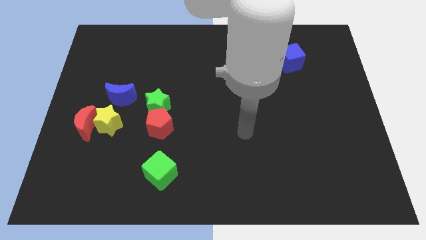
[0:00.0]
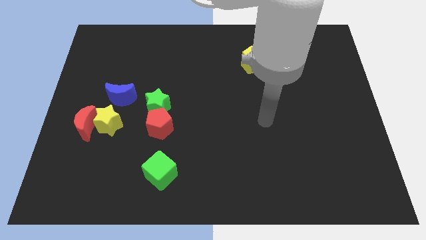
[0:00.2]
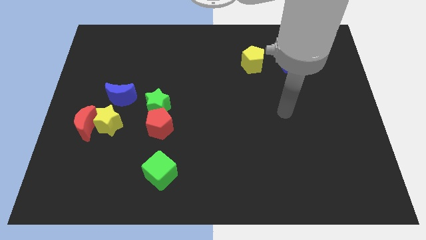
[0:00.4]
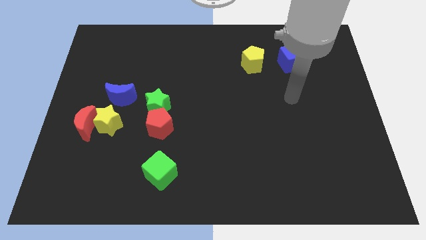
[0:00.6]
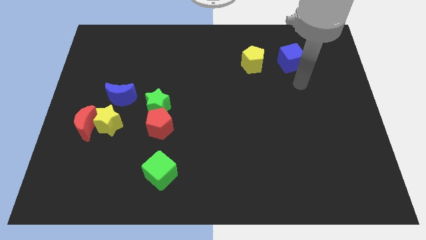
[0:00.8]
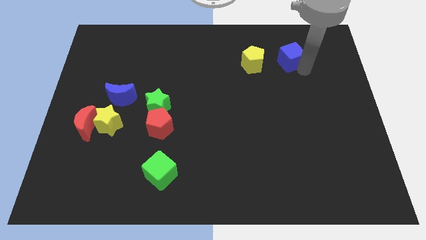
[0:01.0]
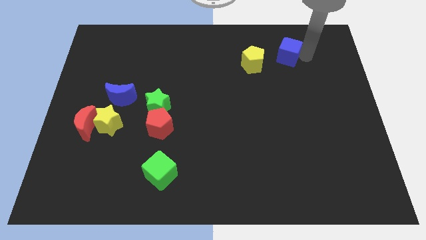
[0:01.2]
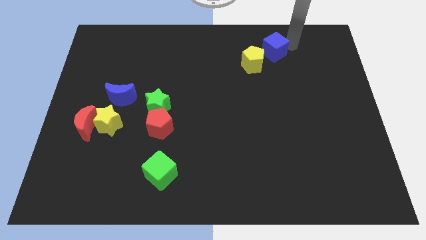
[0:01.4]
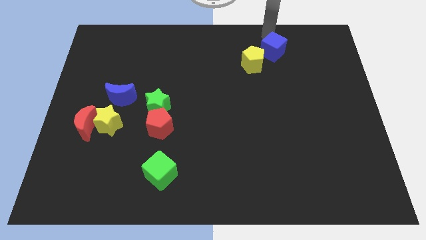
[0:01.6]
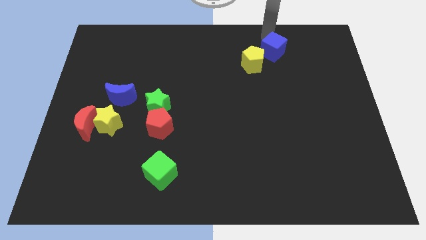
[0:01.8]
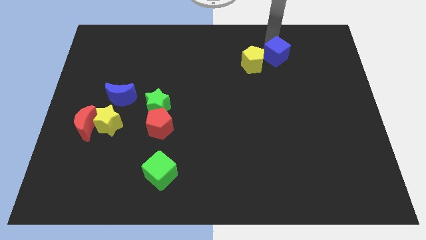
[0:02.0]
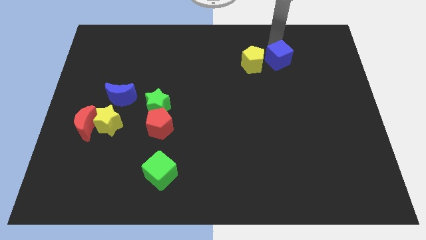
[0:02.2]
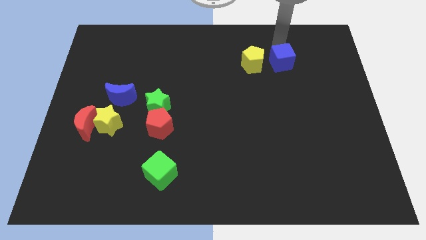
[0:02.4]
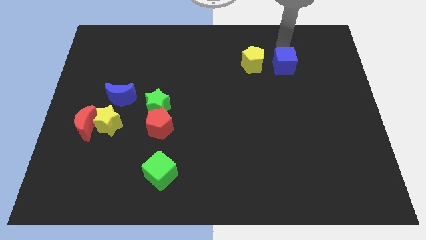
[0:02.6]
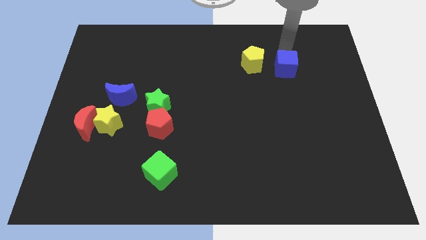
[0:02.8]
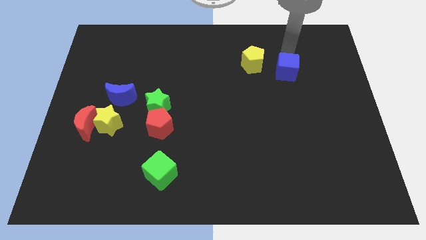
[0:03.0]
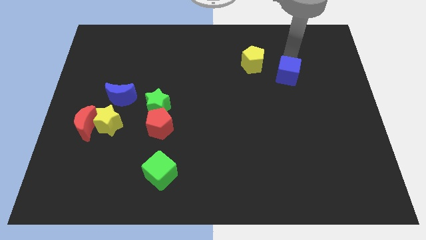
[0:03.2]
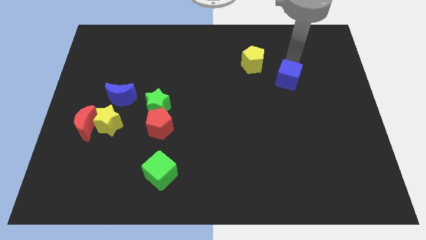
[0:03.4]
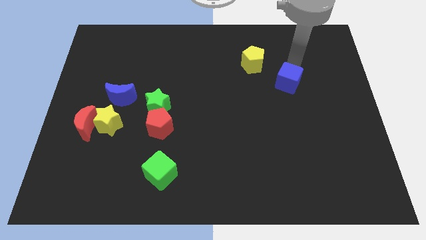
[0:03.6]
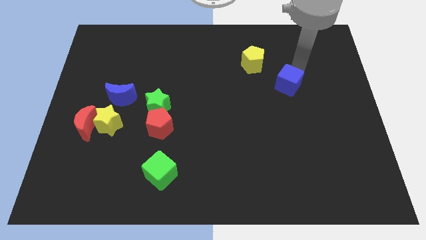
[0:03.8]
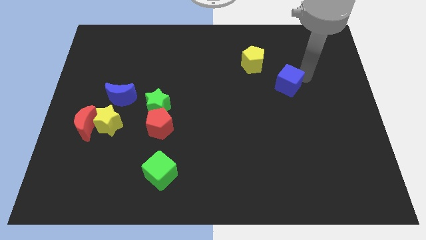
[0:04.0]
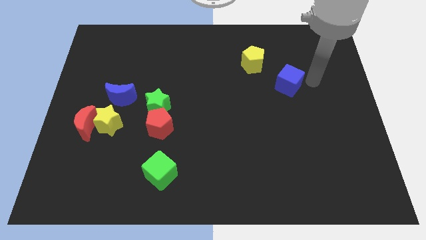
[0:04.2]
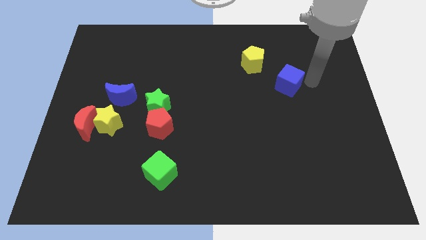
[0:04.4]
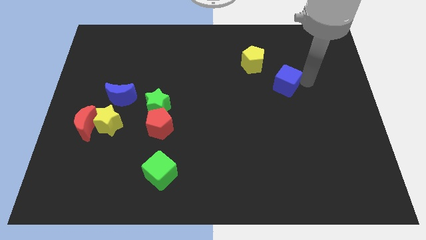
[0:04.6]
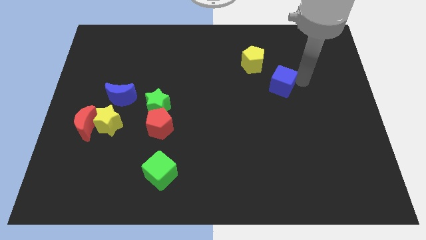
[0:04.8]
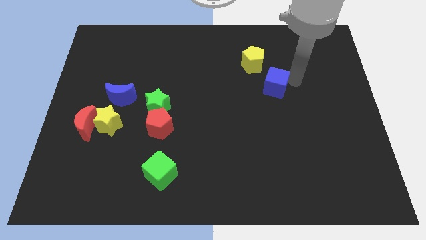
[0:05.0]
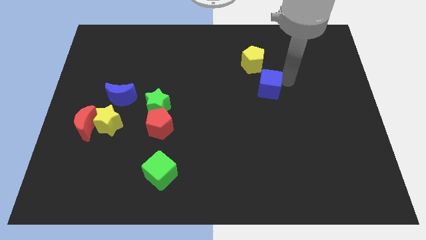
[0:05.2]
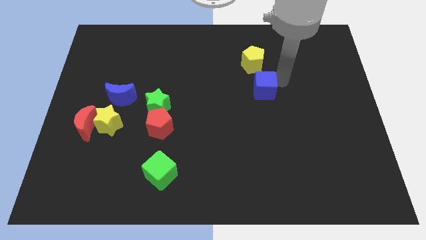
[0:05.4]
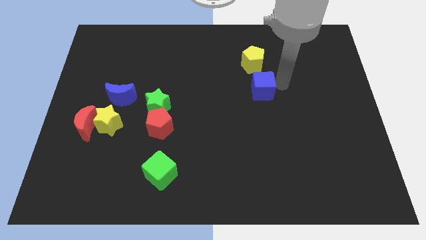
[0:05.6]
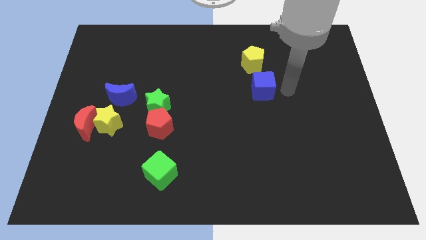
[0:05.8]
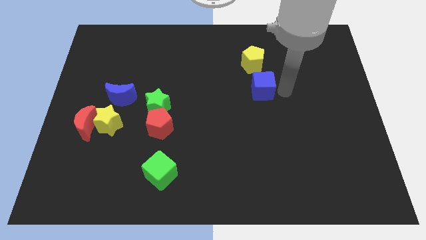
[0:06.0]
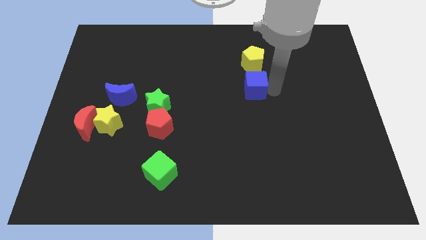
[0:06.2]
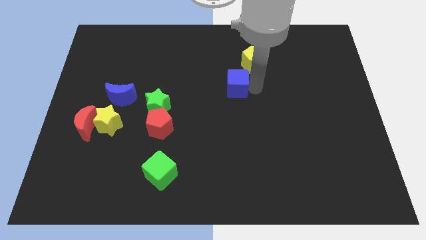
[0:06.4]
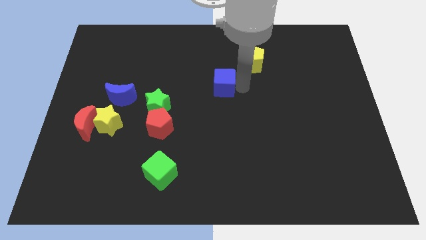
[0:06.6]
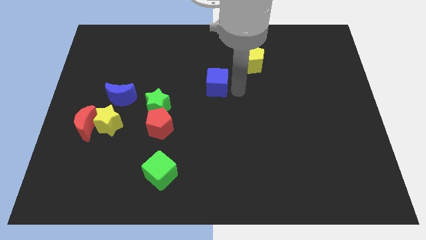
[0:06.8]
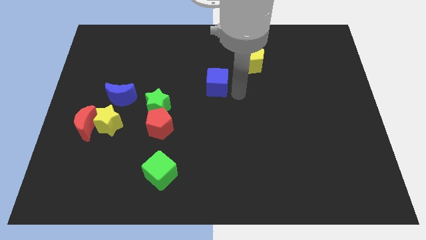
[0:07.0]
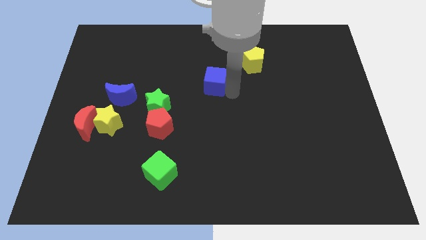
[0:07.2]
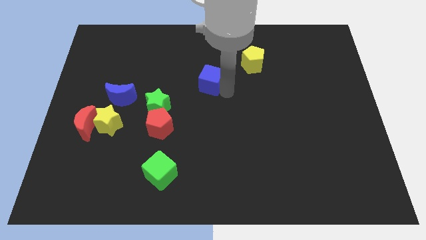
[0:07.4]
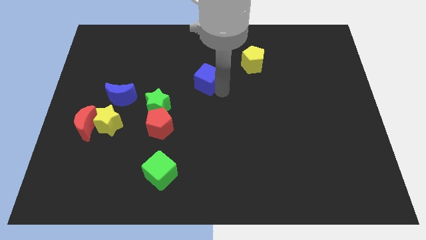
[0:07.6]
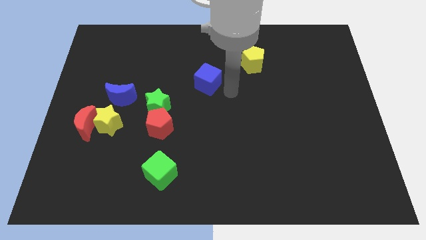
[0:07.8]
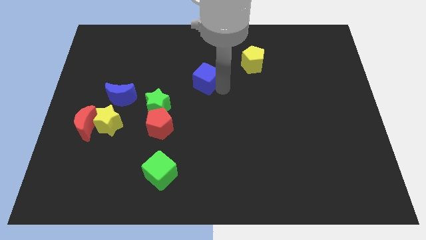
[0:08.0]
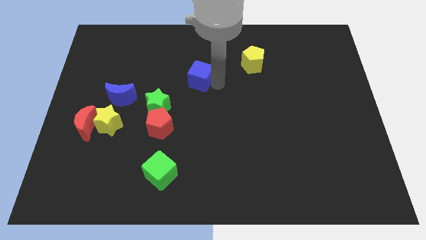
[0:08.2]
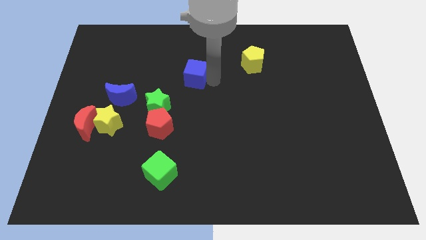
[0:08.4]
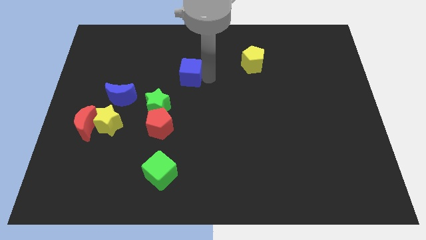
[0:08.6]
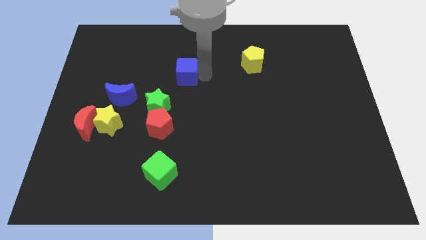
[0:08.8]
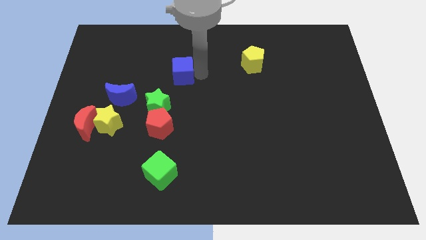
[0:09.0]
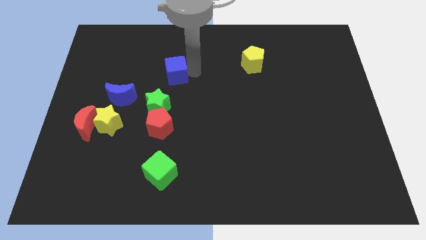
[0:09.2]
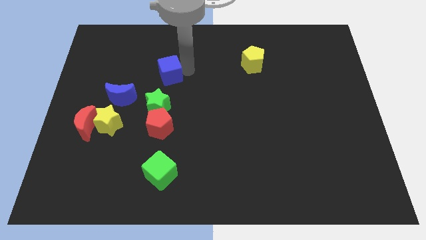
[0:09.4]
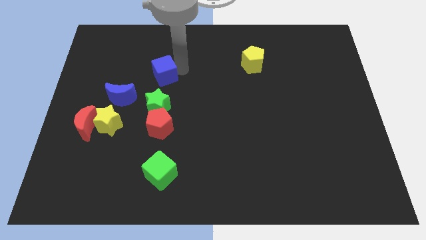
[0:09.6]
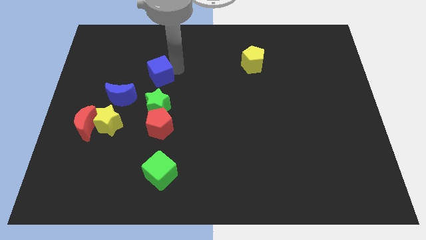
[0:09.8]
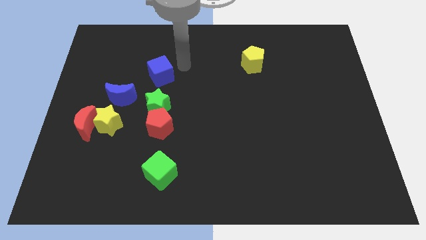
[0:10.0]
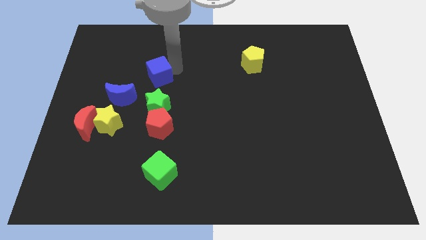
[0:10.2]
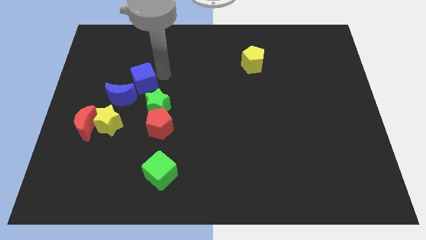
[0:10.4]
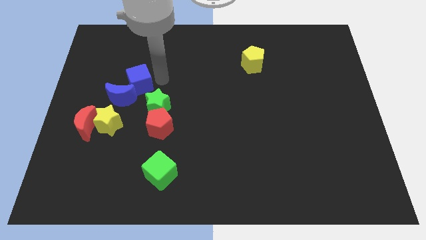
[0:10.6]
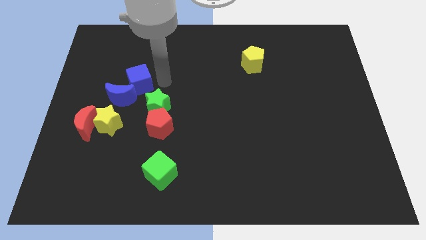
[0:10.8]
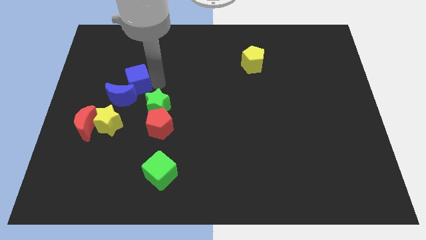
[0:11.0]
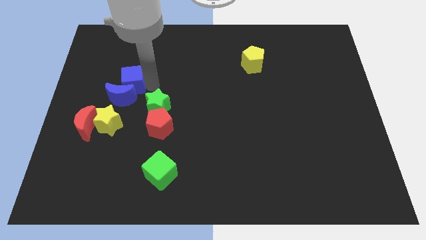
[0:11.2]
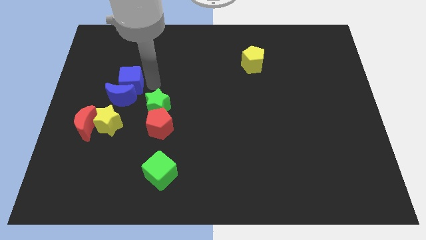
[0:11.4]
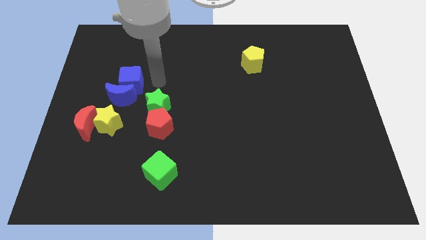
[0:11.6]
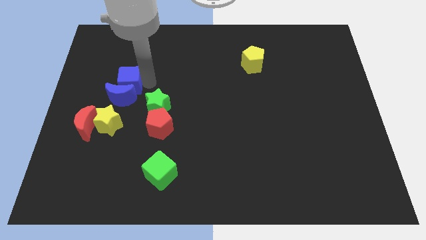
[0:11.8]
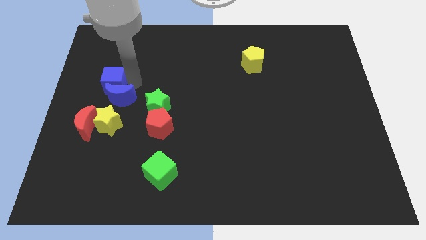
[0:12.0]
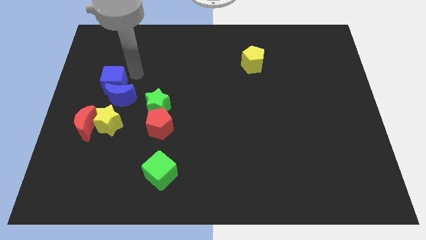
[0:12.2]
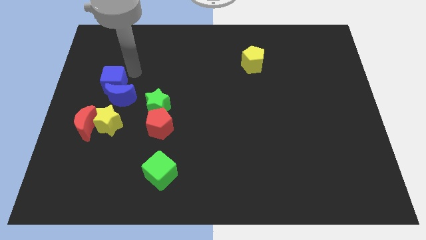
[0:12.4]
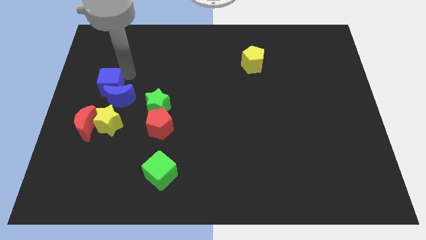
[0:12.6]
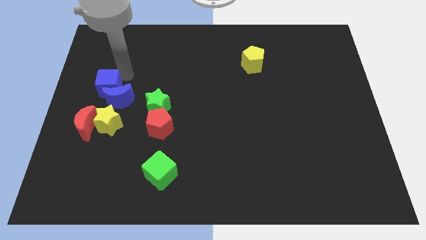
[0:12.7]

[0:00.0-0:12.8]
put the blue cube to the left side of the board
